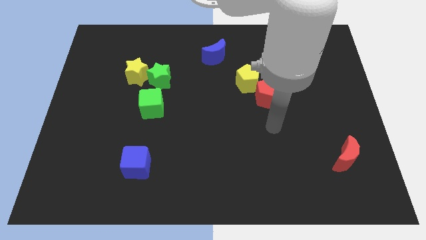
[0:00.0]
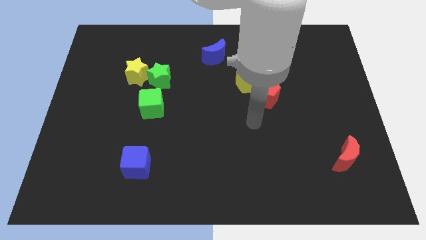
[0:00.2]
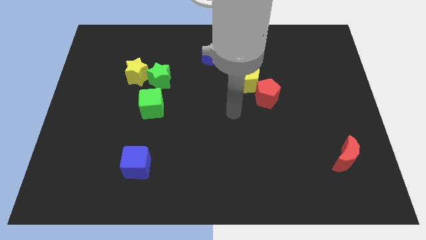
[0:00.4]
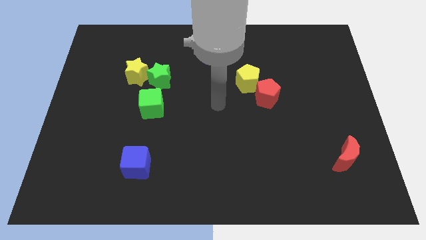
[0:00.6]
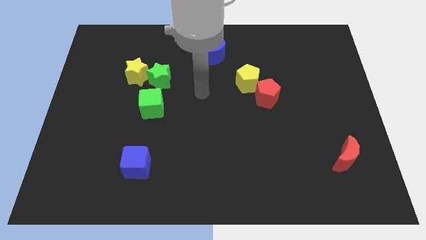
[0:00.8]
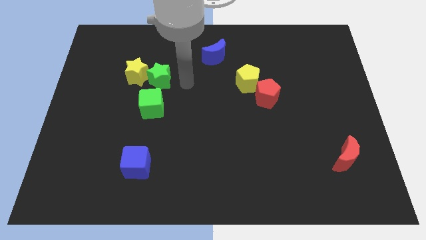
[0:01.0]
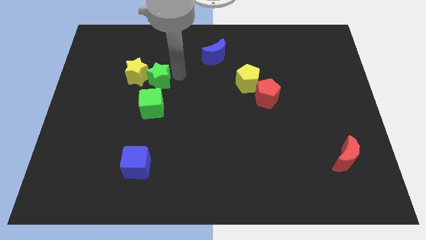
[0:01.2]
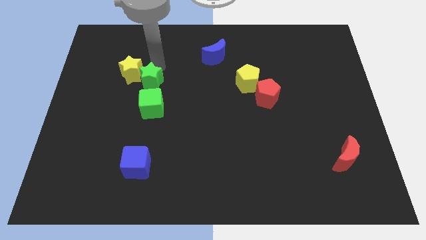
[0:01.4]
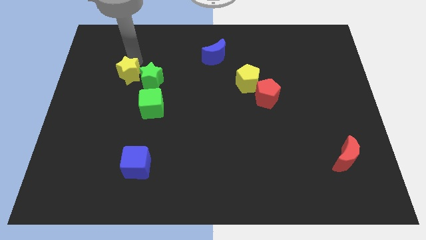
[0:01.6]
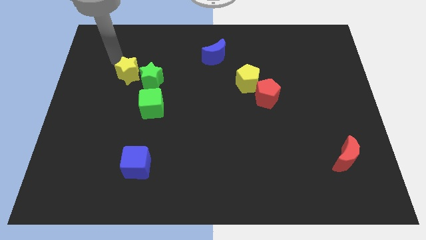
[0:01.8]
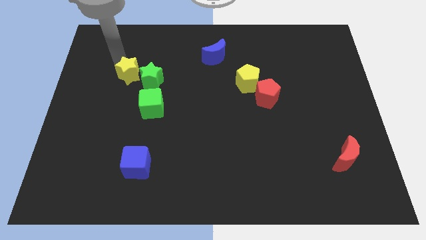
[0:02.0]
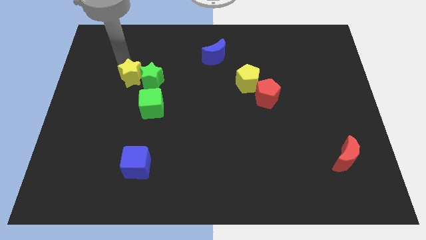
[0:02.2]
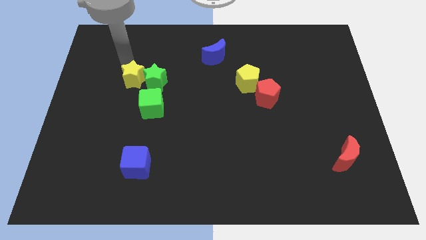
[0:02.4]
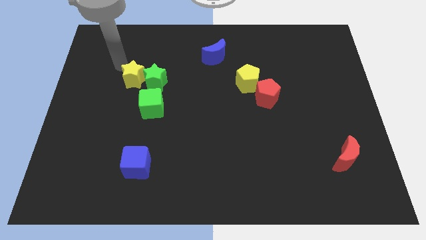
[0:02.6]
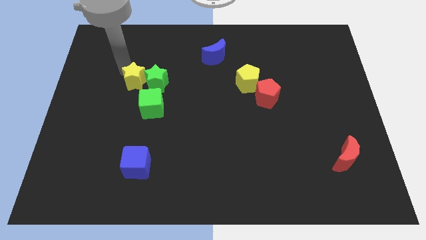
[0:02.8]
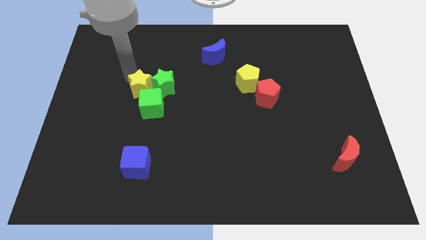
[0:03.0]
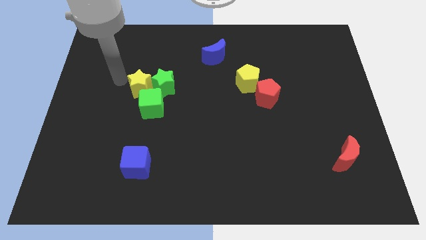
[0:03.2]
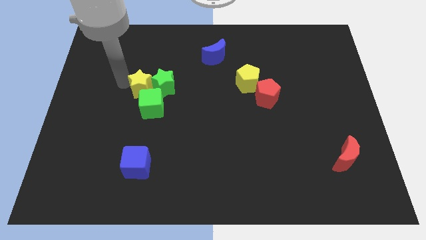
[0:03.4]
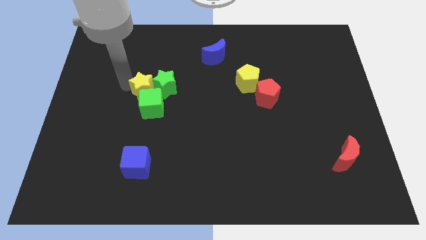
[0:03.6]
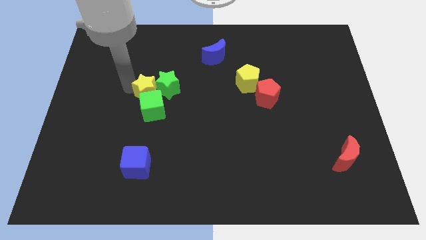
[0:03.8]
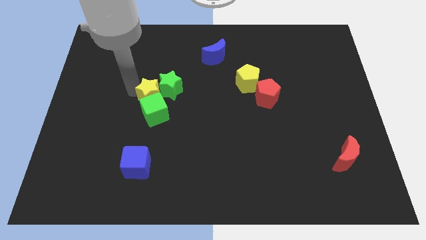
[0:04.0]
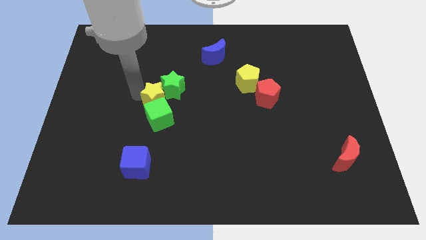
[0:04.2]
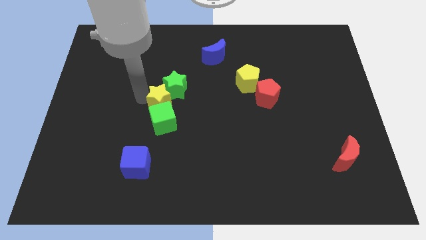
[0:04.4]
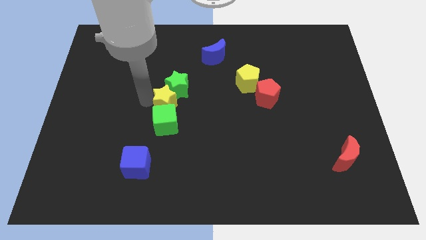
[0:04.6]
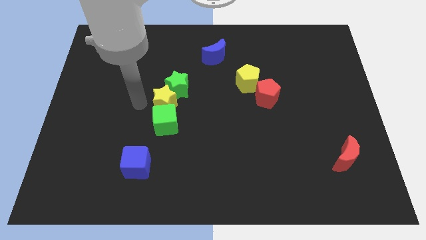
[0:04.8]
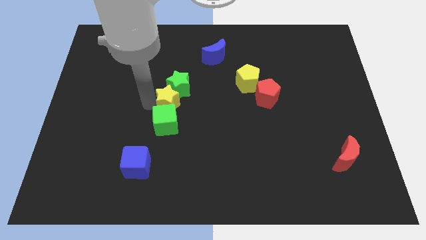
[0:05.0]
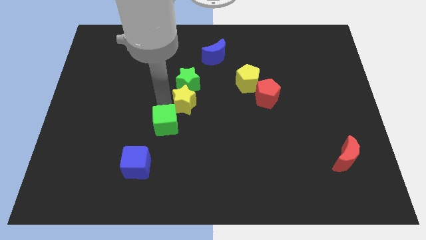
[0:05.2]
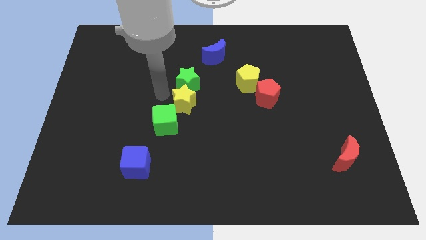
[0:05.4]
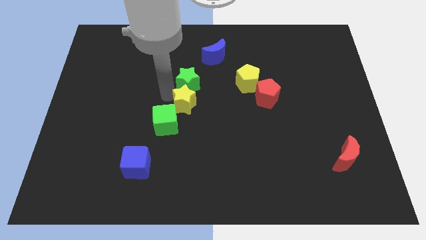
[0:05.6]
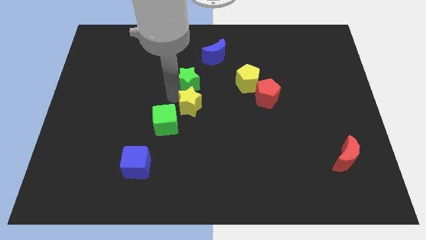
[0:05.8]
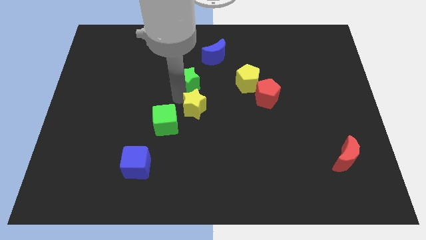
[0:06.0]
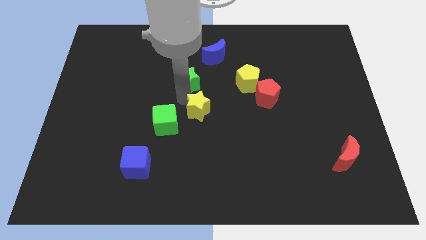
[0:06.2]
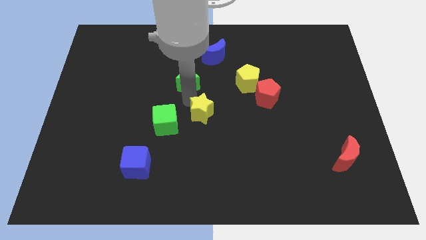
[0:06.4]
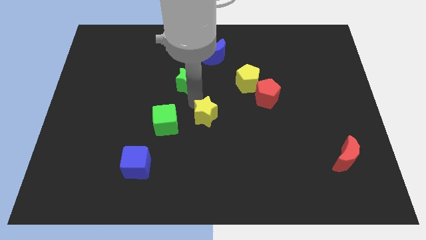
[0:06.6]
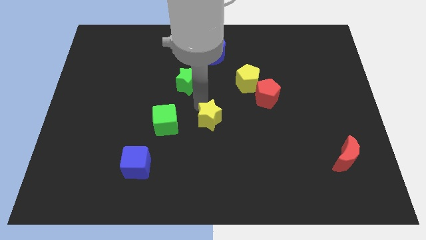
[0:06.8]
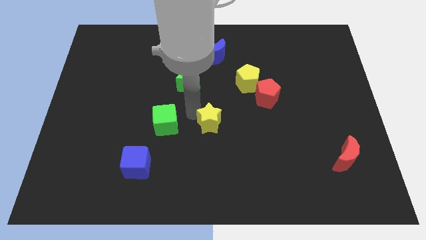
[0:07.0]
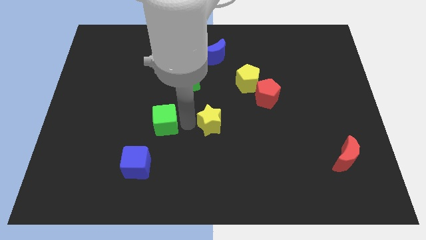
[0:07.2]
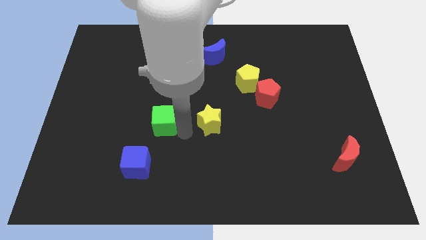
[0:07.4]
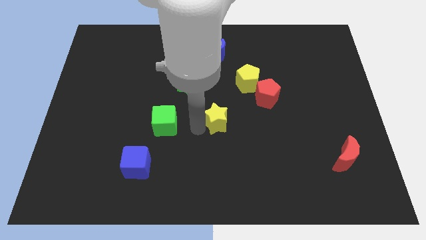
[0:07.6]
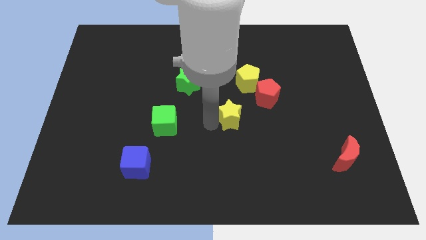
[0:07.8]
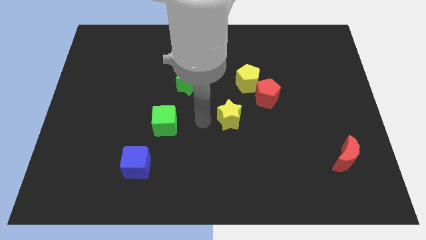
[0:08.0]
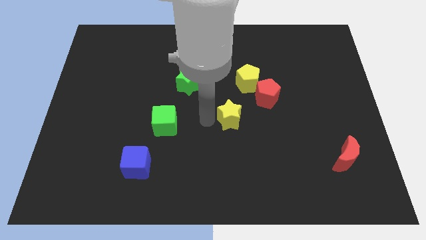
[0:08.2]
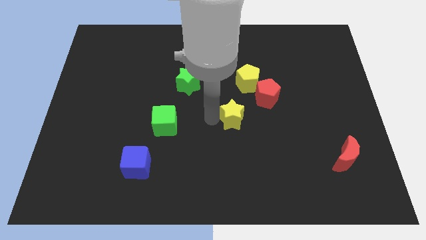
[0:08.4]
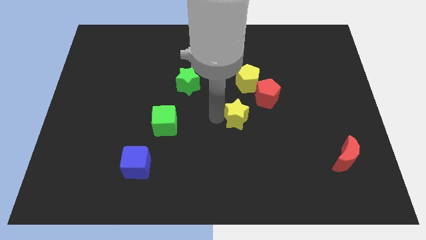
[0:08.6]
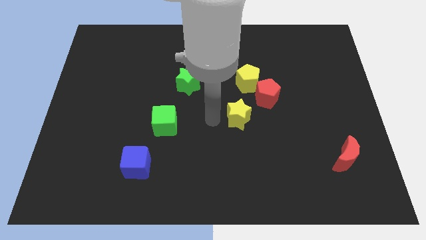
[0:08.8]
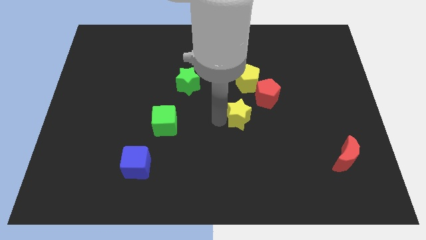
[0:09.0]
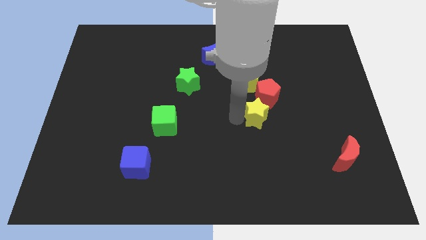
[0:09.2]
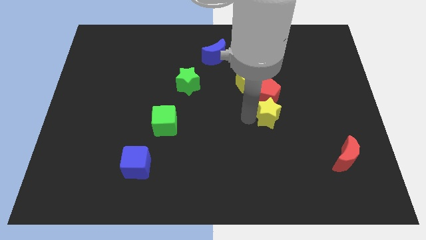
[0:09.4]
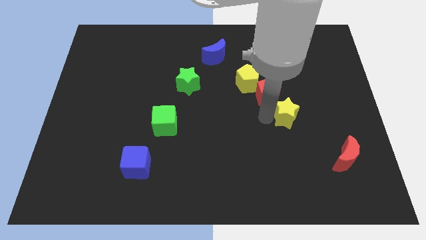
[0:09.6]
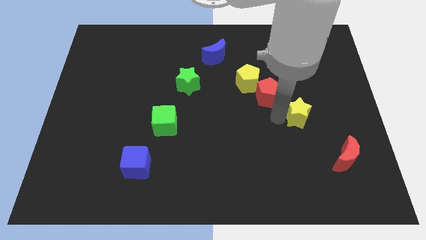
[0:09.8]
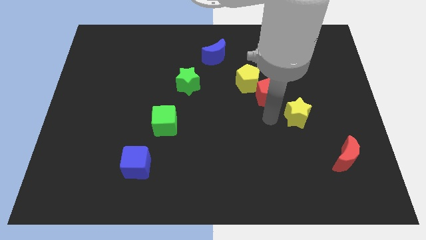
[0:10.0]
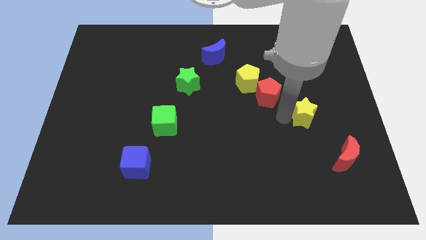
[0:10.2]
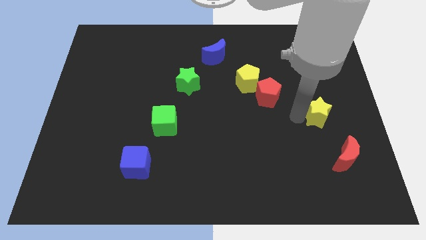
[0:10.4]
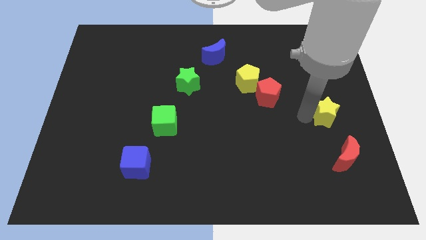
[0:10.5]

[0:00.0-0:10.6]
move the yellow star to the right side of the board

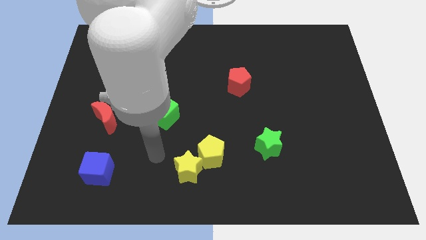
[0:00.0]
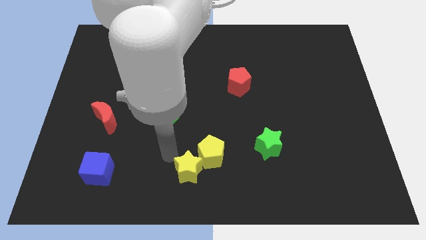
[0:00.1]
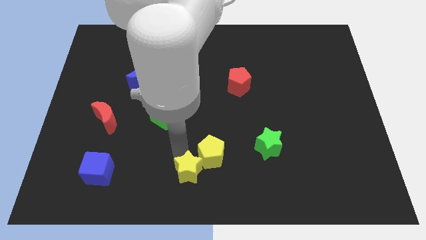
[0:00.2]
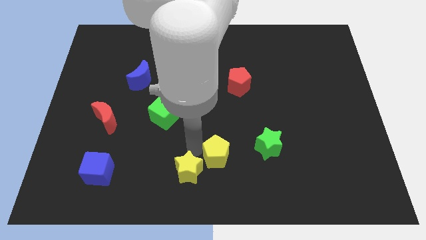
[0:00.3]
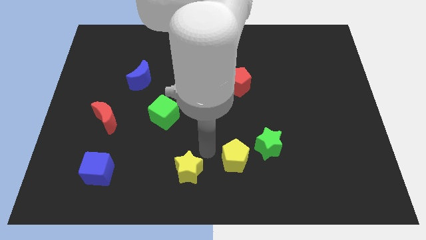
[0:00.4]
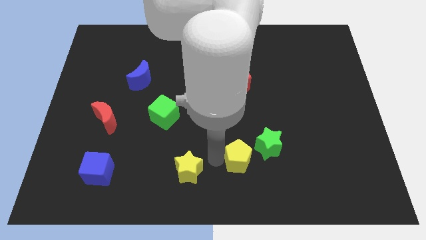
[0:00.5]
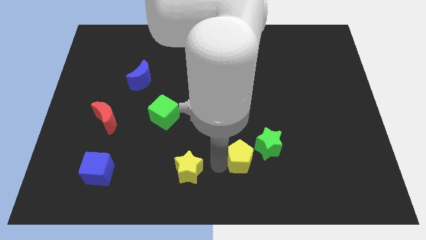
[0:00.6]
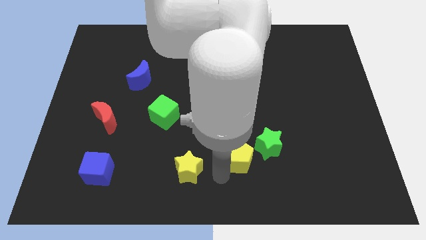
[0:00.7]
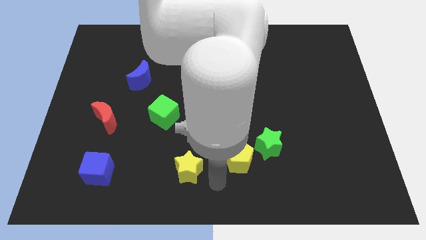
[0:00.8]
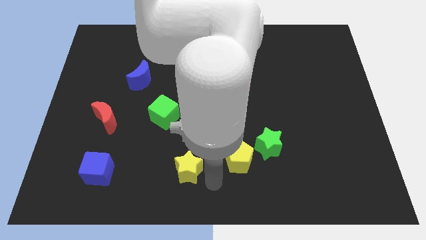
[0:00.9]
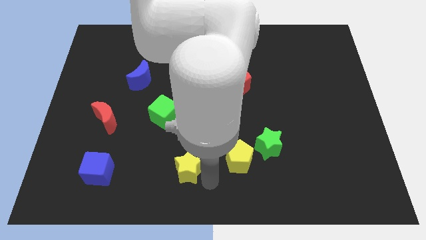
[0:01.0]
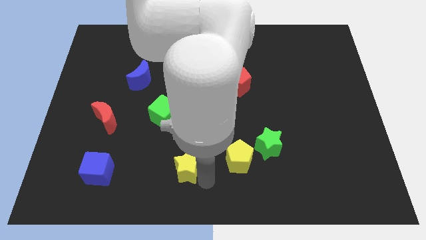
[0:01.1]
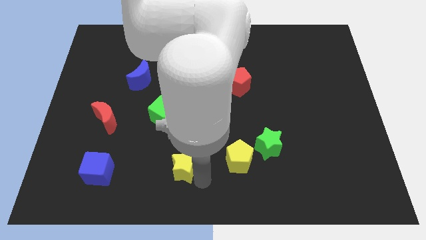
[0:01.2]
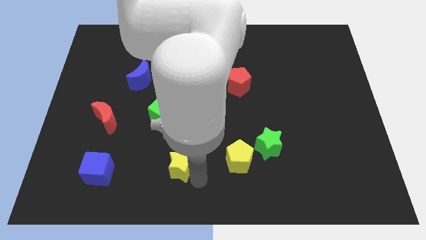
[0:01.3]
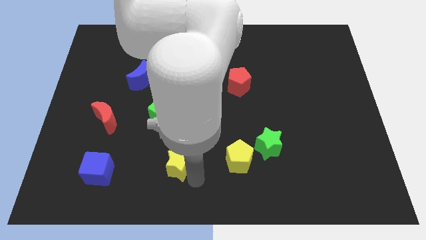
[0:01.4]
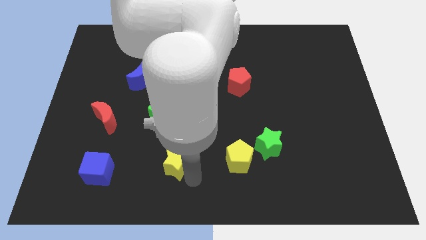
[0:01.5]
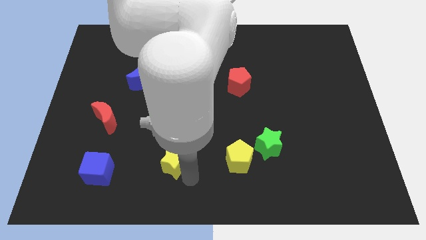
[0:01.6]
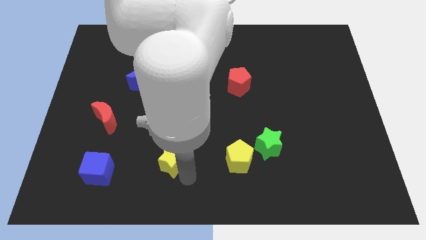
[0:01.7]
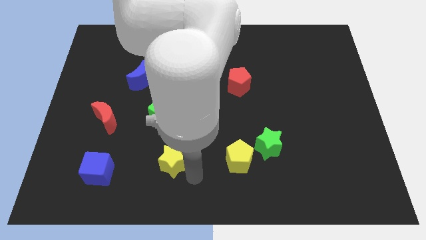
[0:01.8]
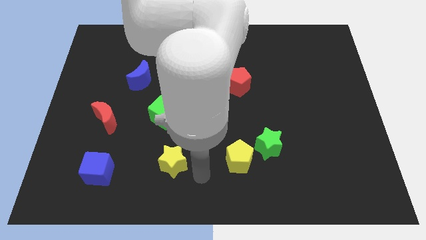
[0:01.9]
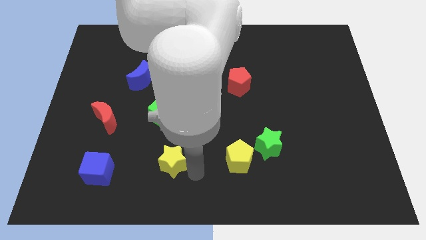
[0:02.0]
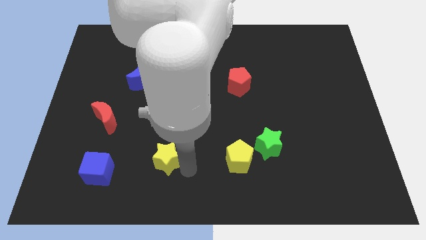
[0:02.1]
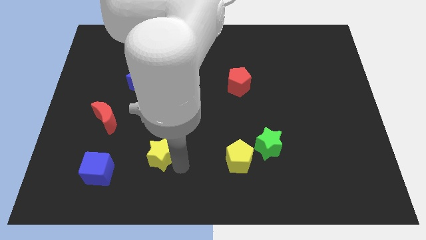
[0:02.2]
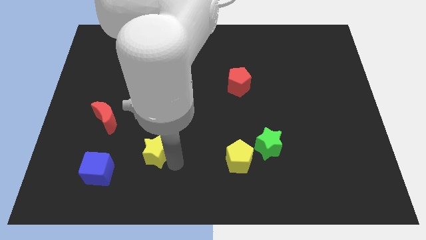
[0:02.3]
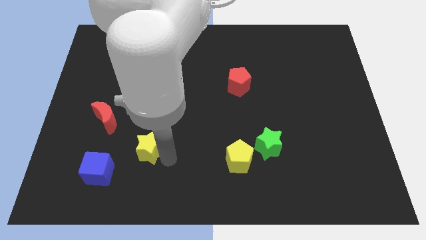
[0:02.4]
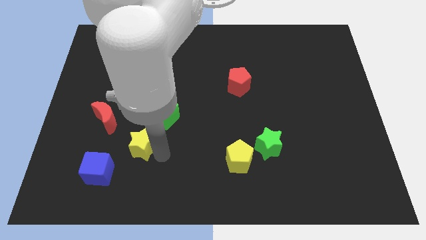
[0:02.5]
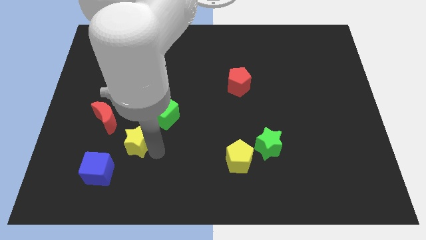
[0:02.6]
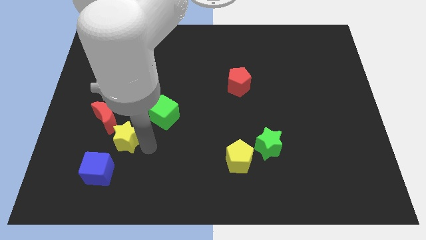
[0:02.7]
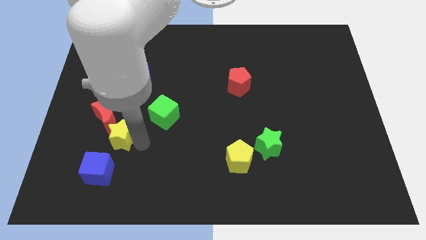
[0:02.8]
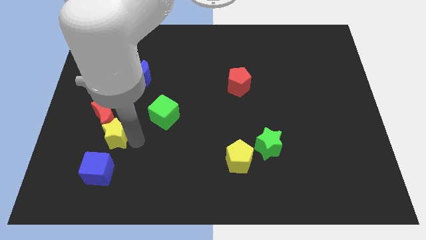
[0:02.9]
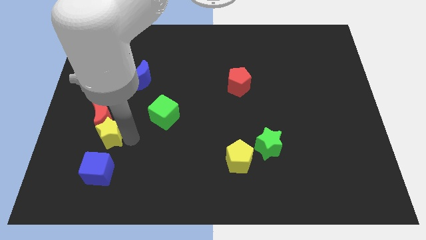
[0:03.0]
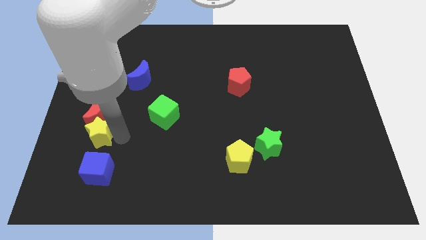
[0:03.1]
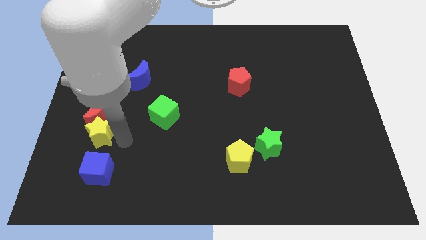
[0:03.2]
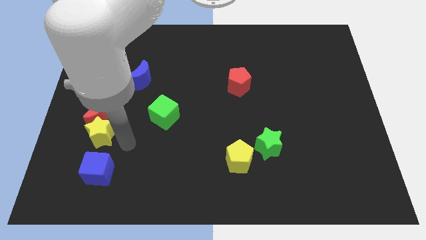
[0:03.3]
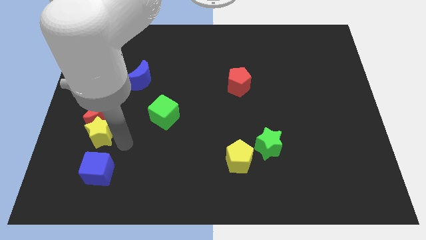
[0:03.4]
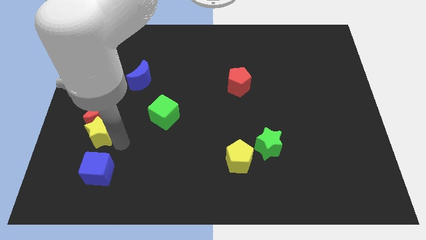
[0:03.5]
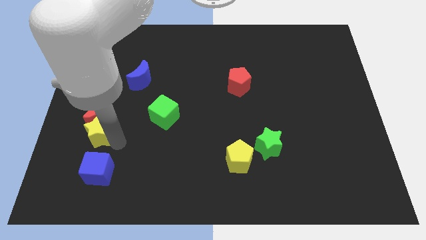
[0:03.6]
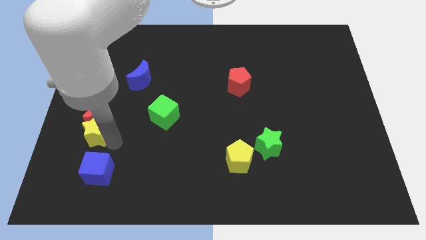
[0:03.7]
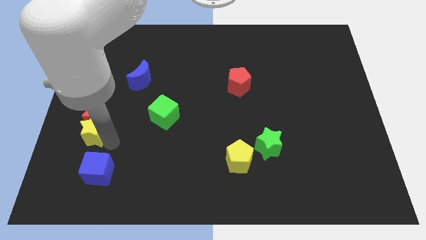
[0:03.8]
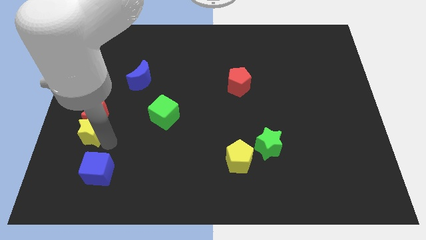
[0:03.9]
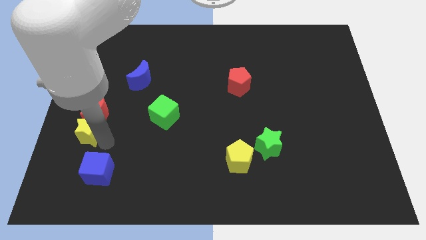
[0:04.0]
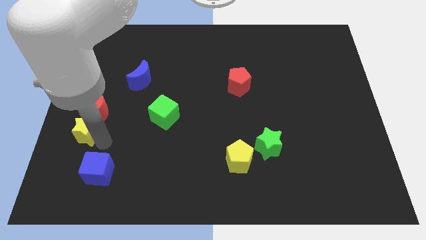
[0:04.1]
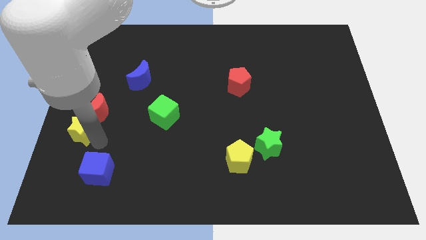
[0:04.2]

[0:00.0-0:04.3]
put the yellow star to the center left
